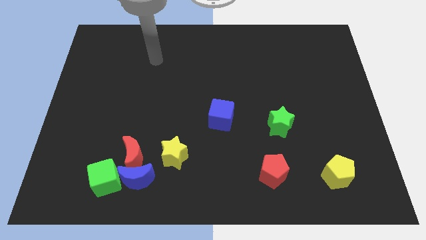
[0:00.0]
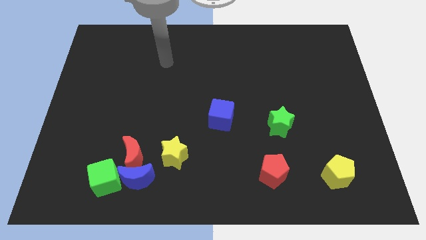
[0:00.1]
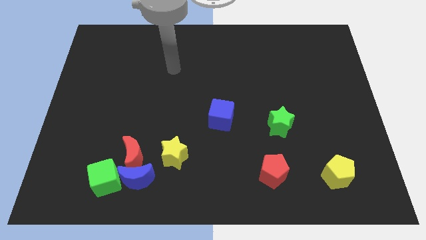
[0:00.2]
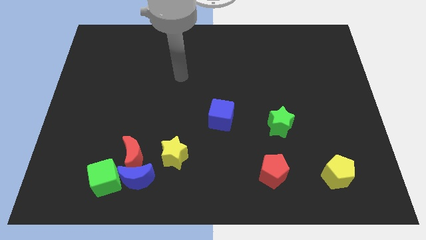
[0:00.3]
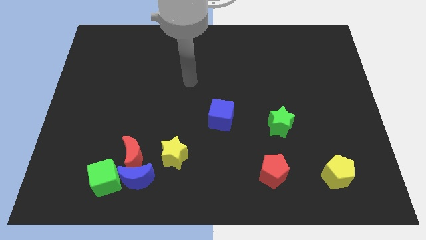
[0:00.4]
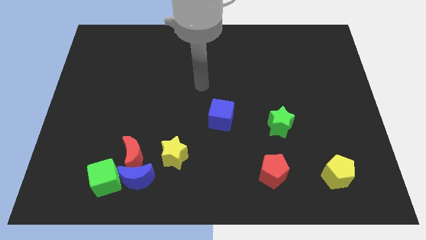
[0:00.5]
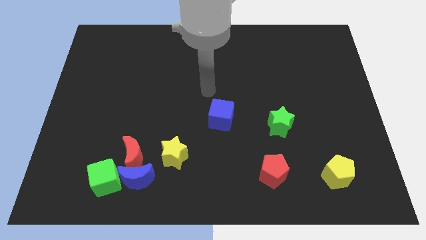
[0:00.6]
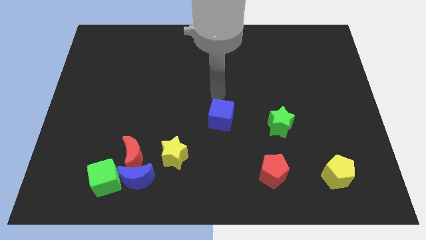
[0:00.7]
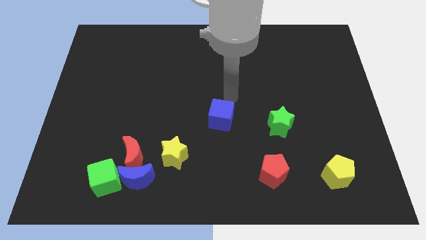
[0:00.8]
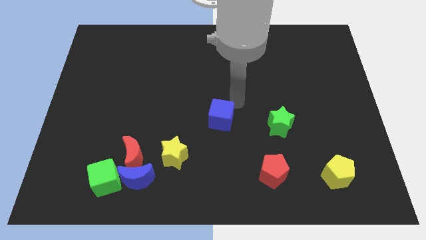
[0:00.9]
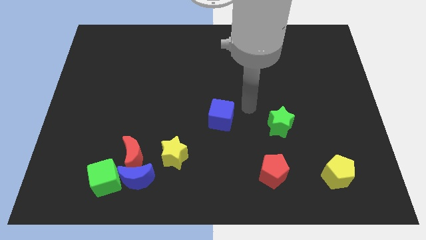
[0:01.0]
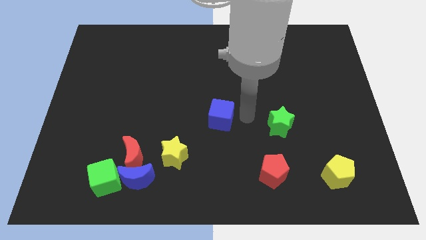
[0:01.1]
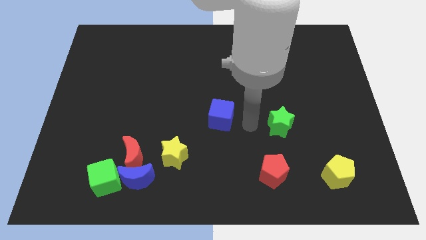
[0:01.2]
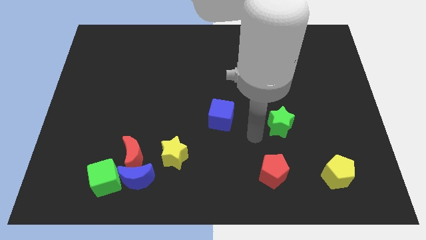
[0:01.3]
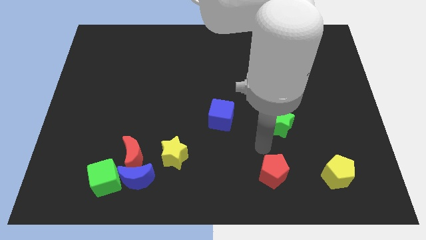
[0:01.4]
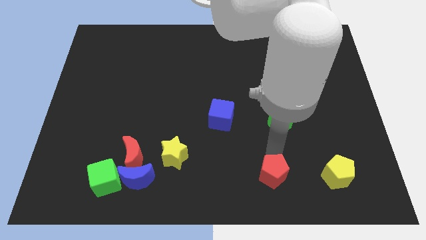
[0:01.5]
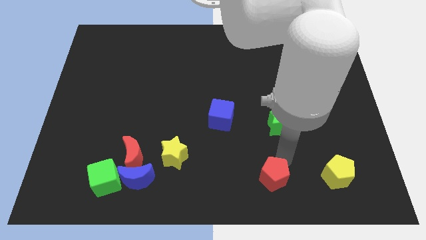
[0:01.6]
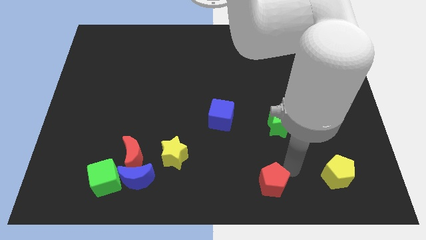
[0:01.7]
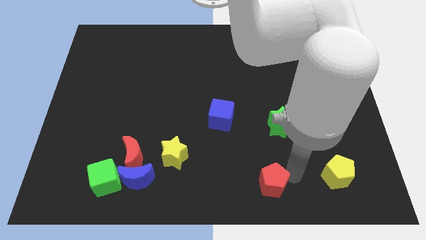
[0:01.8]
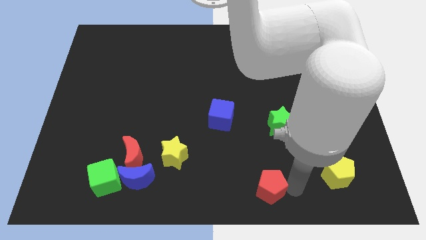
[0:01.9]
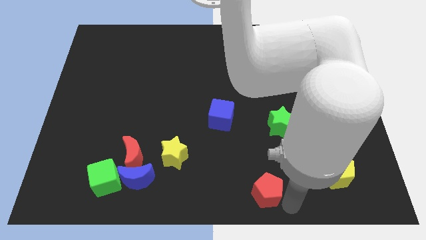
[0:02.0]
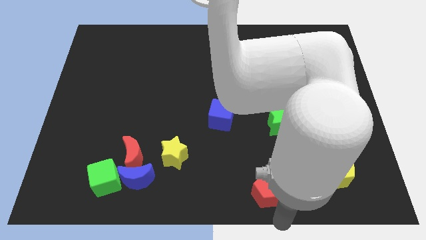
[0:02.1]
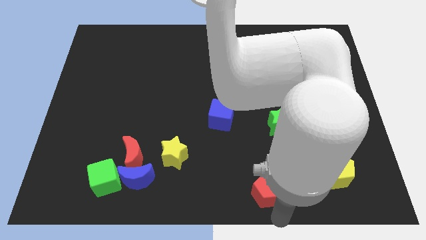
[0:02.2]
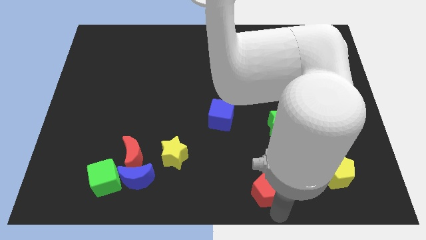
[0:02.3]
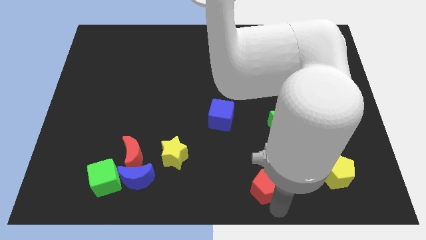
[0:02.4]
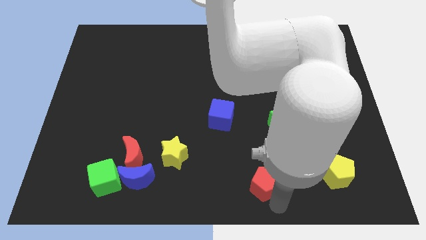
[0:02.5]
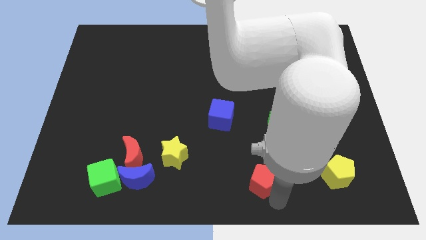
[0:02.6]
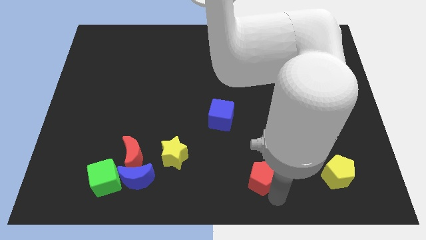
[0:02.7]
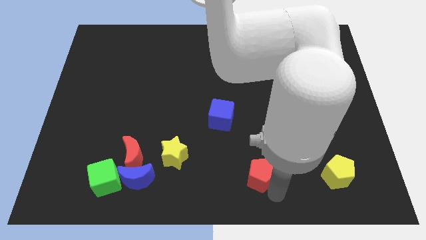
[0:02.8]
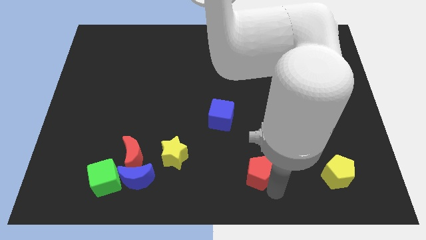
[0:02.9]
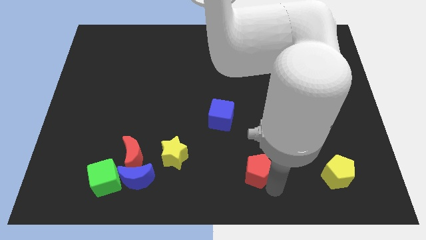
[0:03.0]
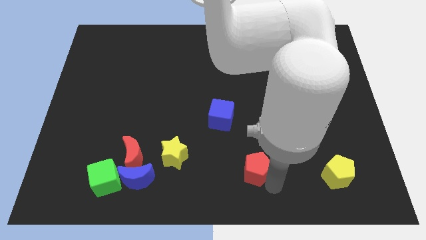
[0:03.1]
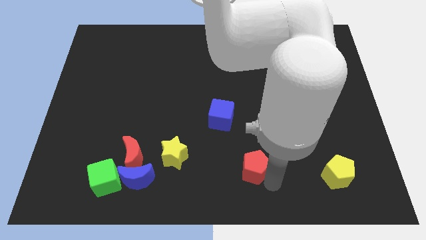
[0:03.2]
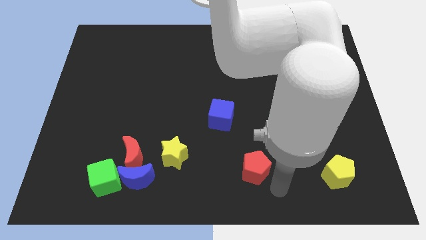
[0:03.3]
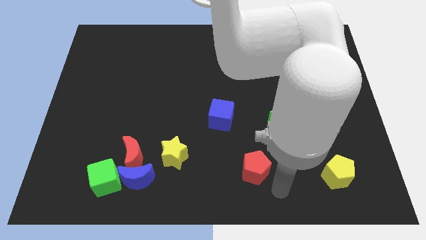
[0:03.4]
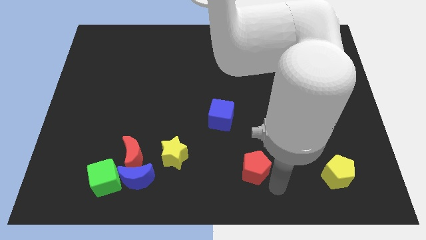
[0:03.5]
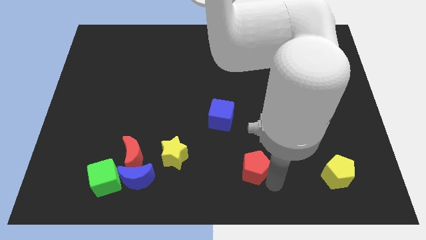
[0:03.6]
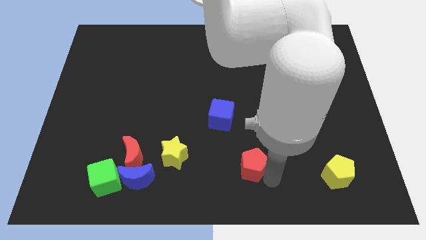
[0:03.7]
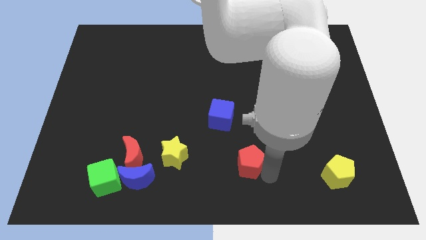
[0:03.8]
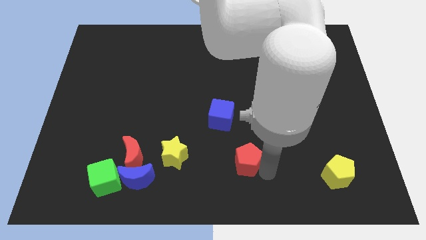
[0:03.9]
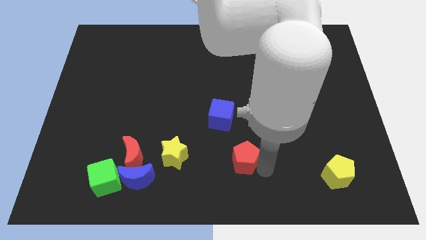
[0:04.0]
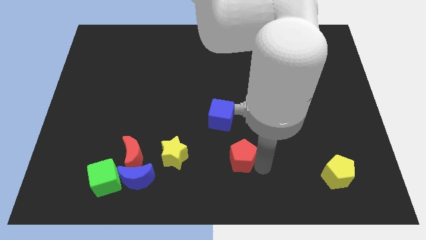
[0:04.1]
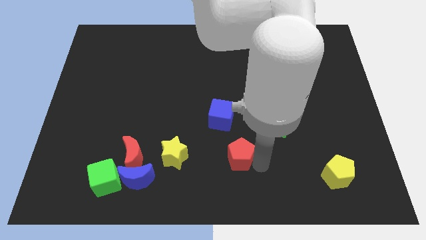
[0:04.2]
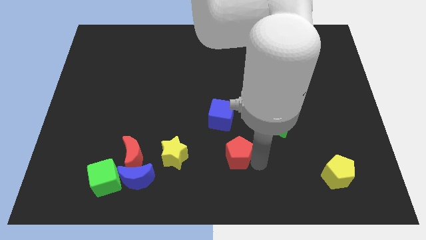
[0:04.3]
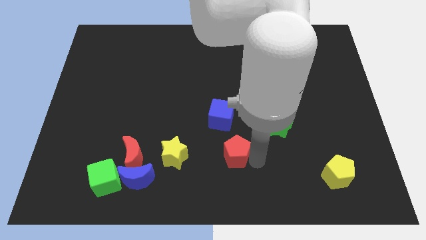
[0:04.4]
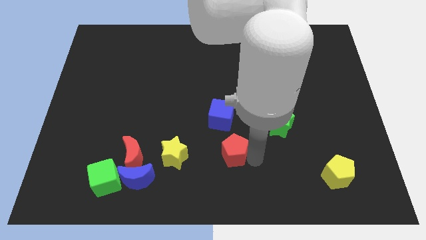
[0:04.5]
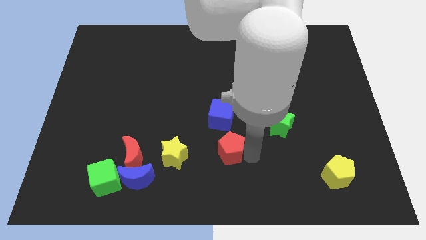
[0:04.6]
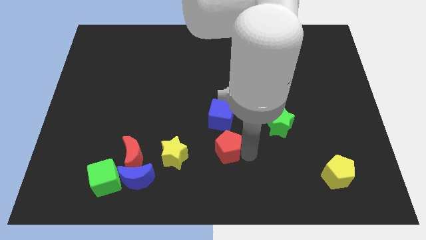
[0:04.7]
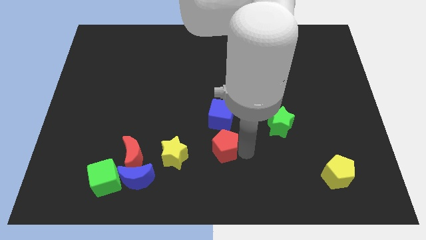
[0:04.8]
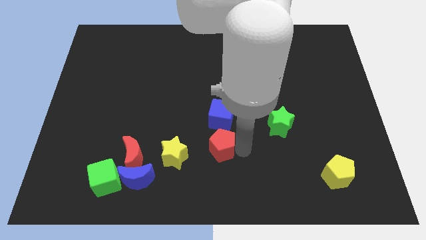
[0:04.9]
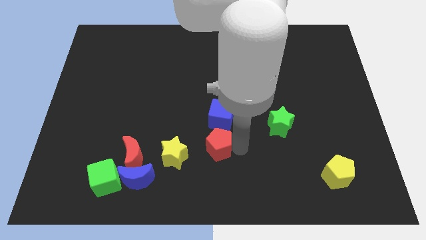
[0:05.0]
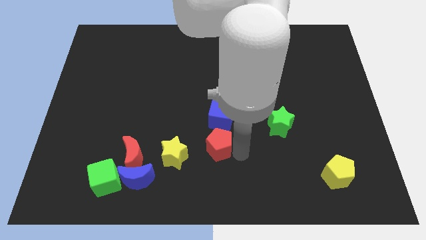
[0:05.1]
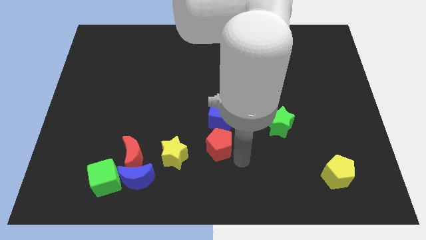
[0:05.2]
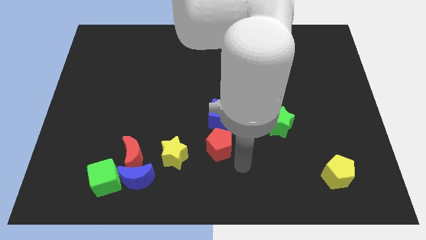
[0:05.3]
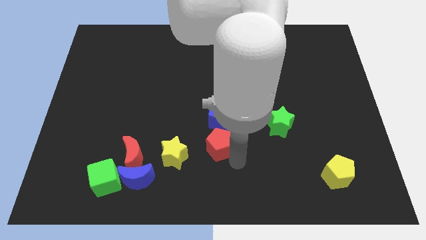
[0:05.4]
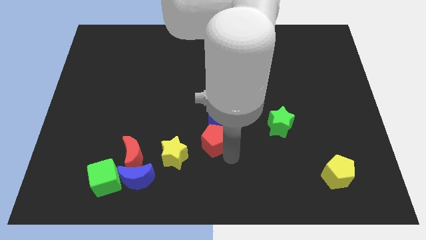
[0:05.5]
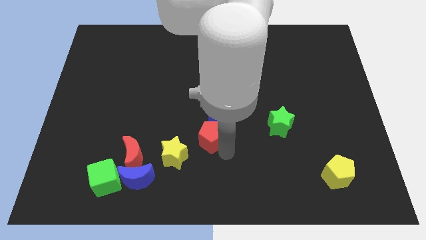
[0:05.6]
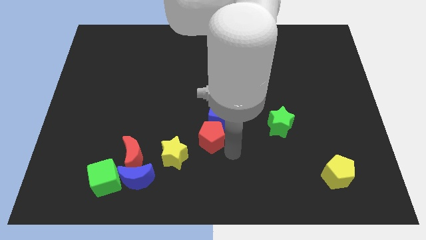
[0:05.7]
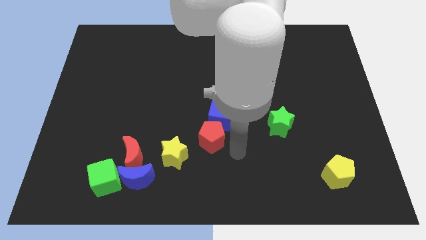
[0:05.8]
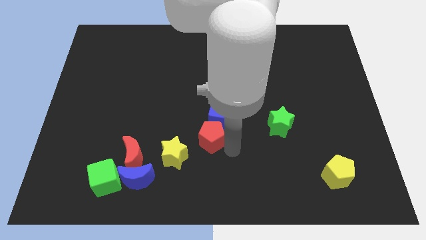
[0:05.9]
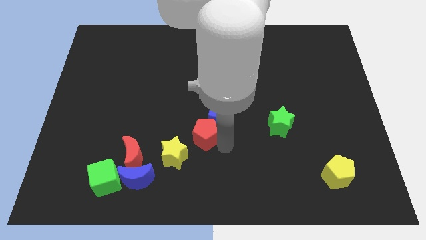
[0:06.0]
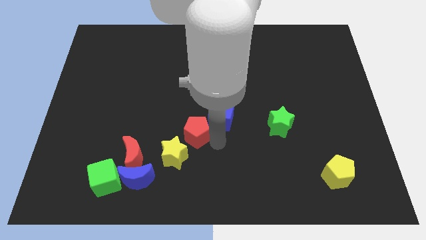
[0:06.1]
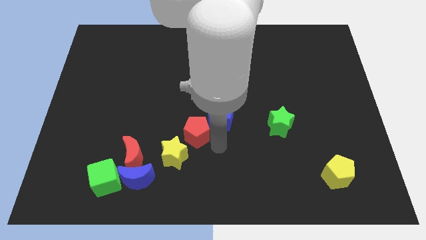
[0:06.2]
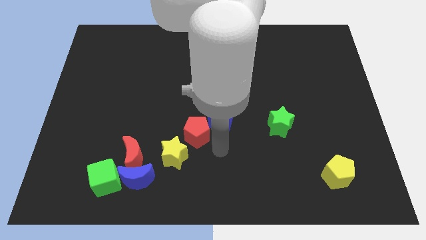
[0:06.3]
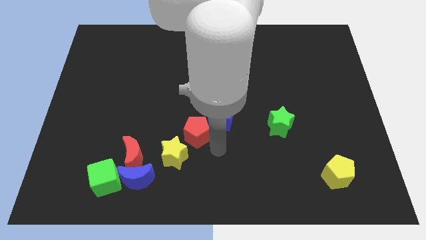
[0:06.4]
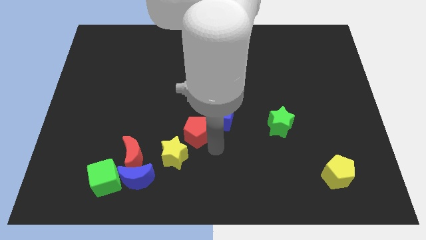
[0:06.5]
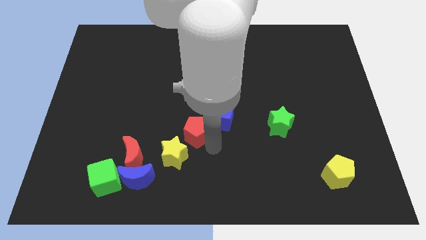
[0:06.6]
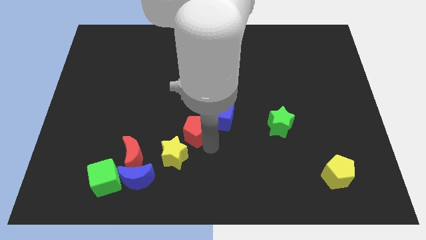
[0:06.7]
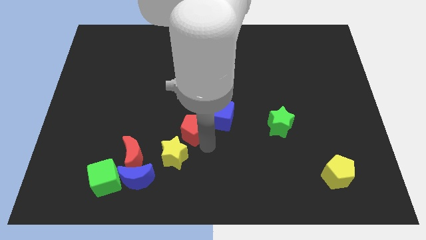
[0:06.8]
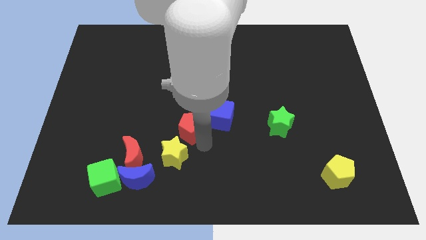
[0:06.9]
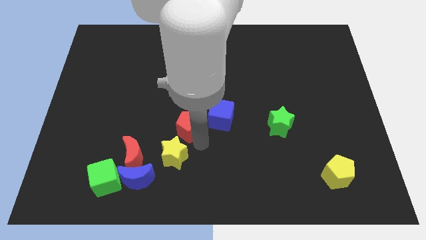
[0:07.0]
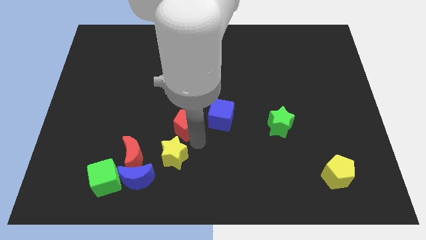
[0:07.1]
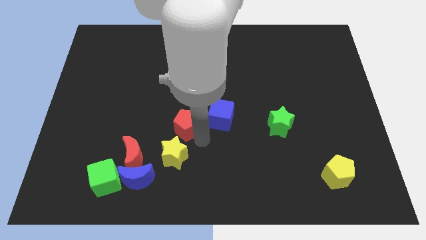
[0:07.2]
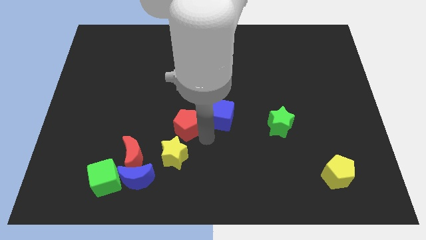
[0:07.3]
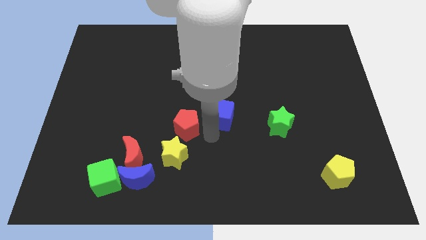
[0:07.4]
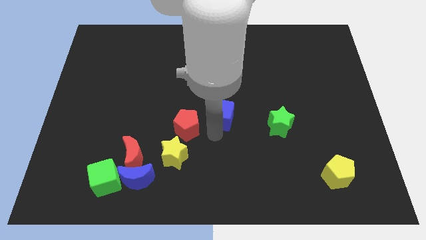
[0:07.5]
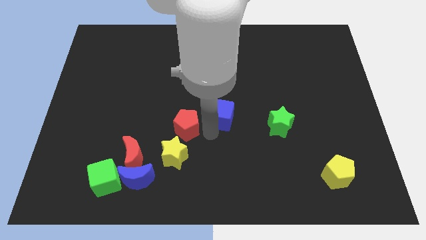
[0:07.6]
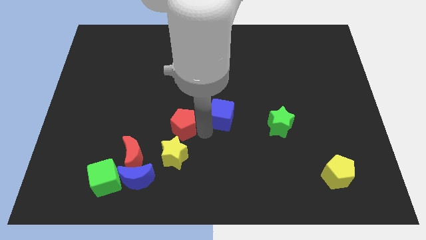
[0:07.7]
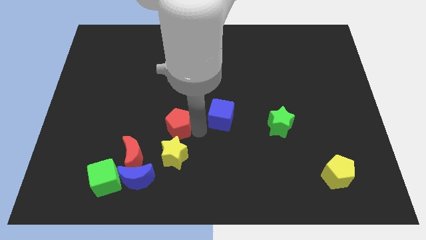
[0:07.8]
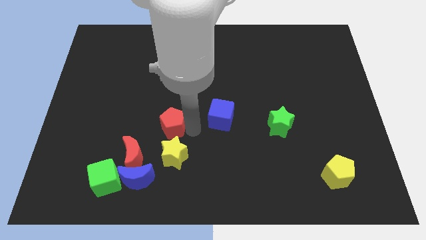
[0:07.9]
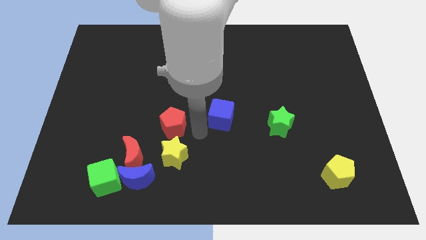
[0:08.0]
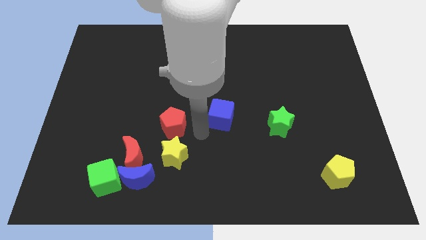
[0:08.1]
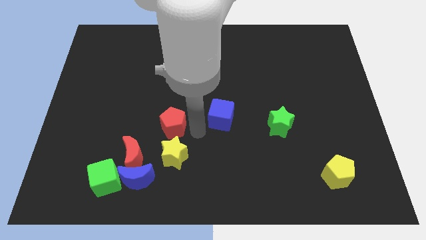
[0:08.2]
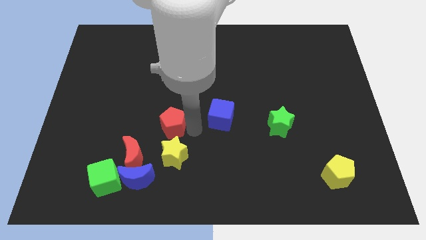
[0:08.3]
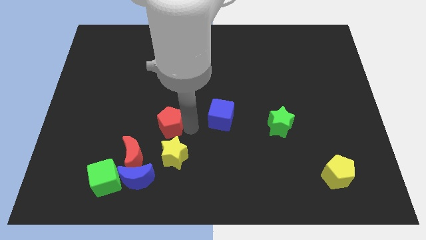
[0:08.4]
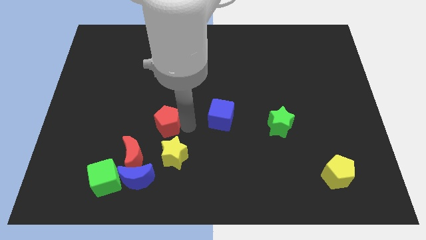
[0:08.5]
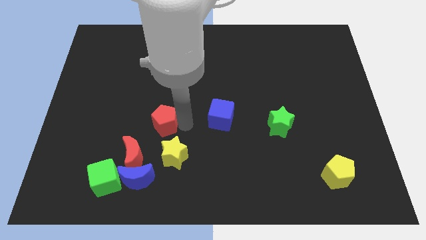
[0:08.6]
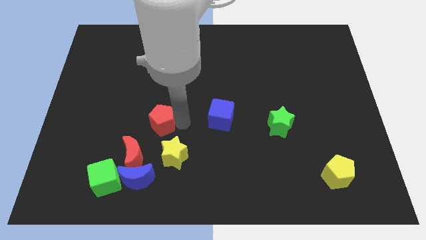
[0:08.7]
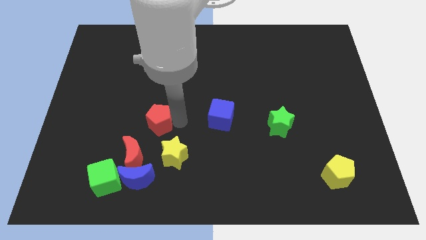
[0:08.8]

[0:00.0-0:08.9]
slide the red pentagon to the top side of the red moon
